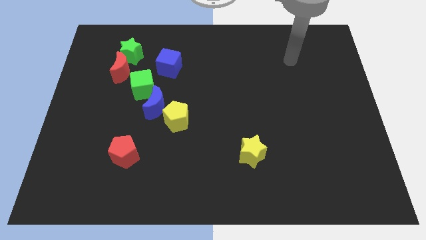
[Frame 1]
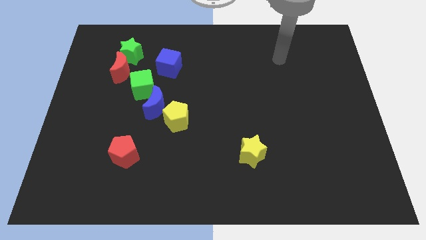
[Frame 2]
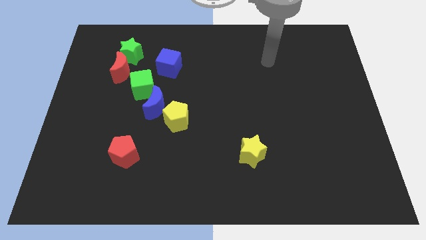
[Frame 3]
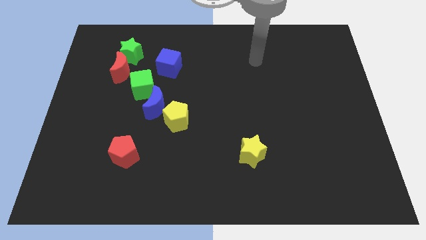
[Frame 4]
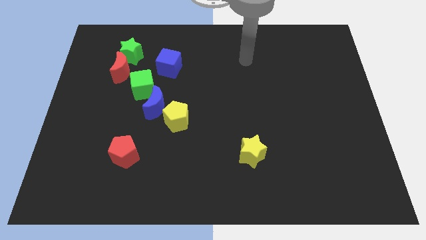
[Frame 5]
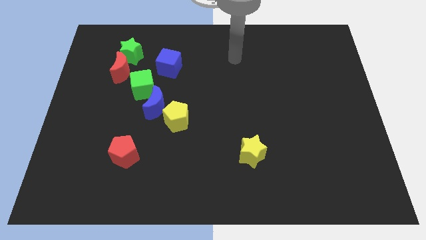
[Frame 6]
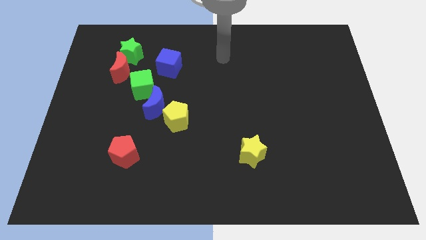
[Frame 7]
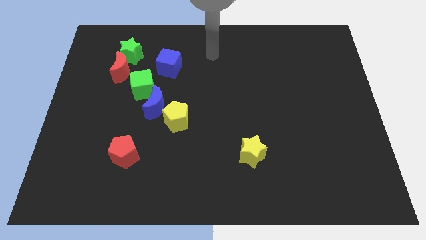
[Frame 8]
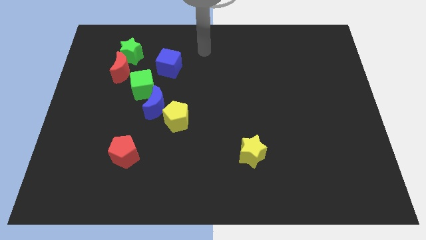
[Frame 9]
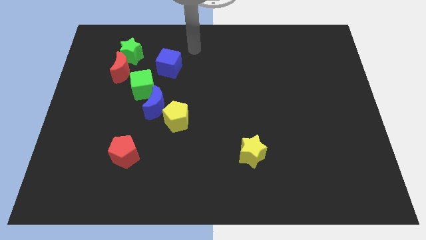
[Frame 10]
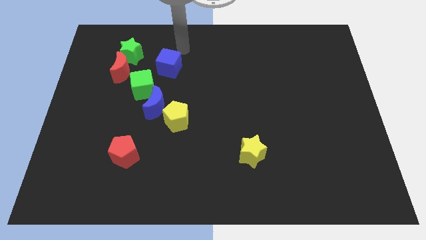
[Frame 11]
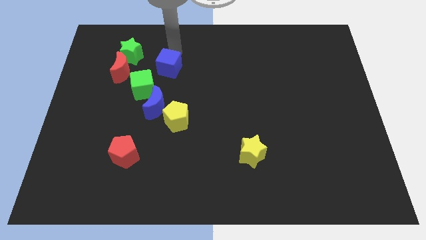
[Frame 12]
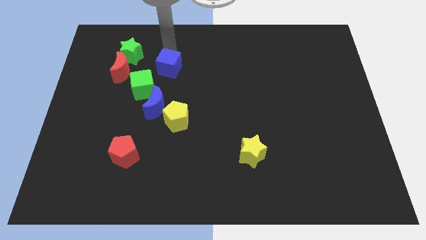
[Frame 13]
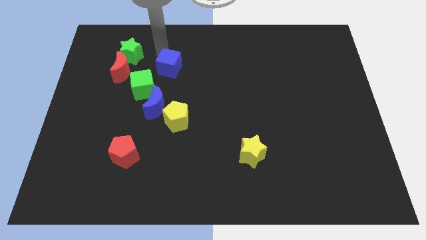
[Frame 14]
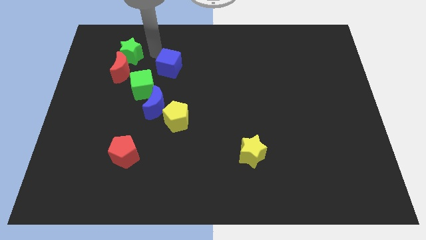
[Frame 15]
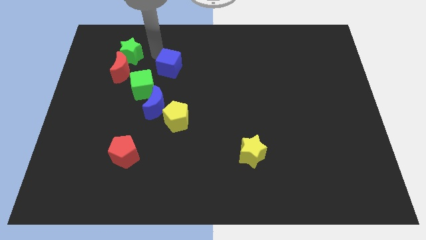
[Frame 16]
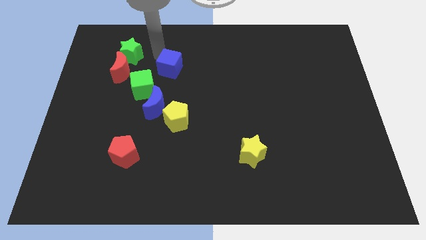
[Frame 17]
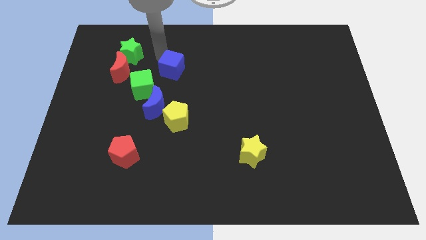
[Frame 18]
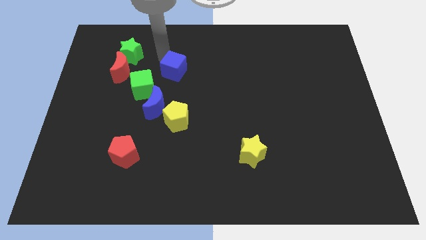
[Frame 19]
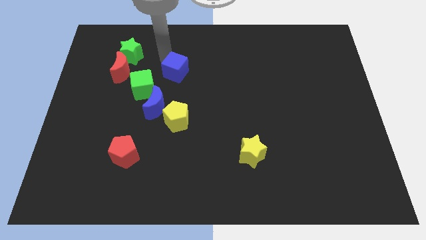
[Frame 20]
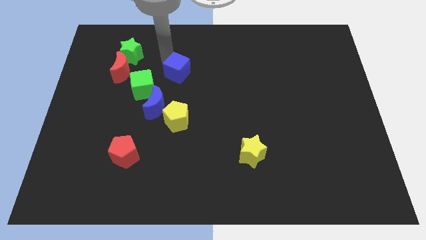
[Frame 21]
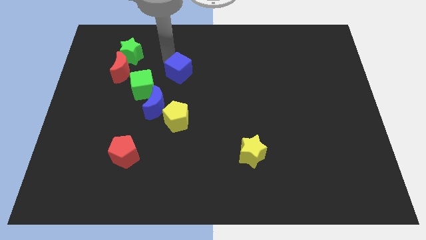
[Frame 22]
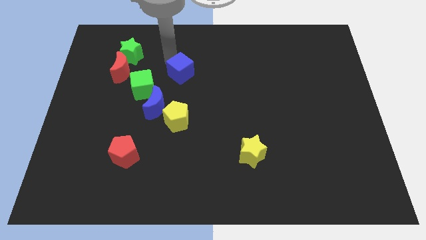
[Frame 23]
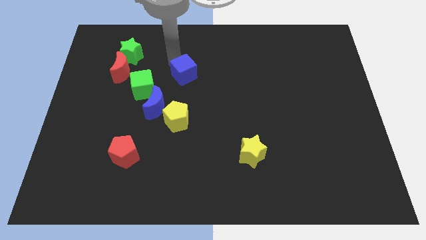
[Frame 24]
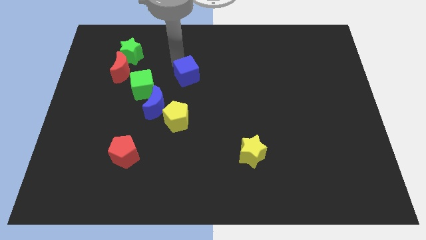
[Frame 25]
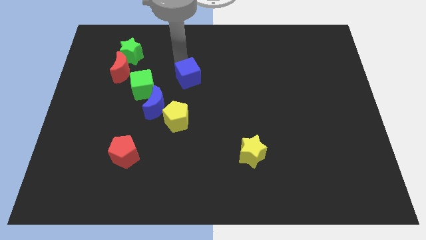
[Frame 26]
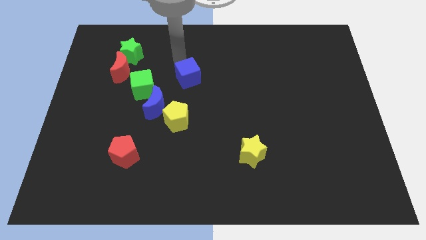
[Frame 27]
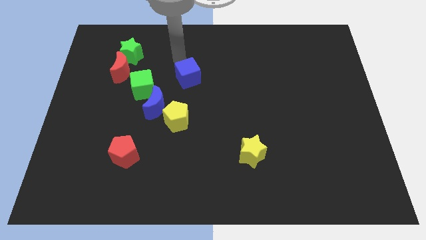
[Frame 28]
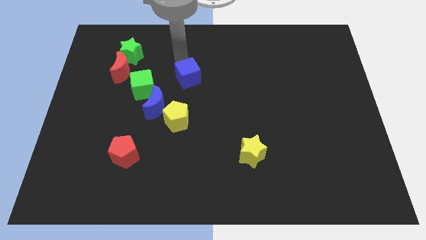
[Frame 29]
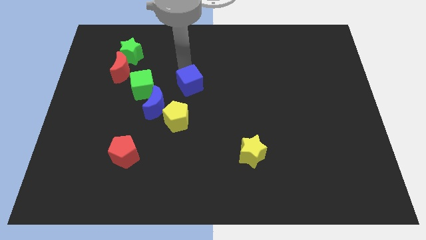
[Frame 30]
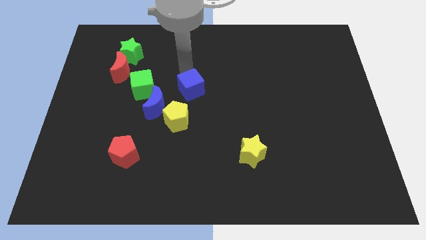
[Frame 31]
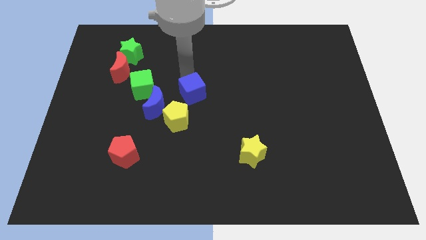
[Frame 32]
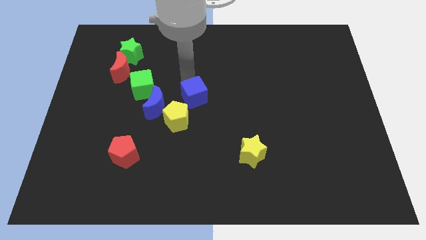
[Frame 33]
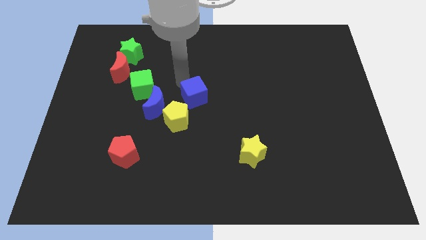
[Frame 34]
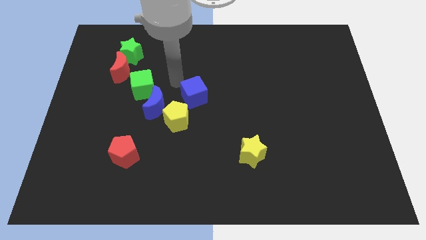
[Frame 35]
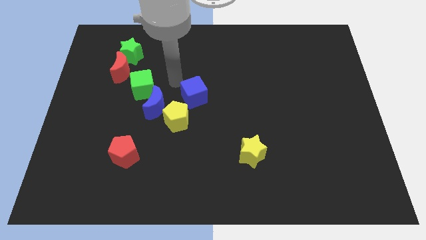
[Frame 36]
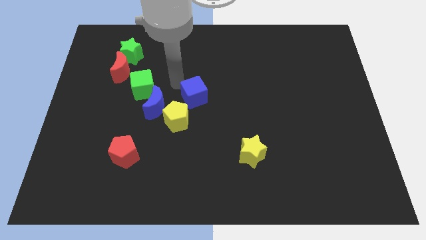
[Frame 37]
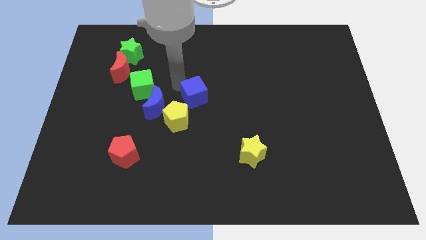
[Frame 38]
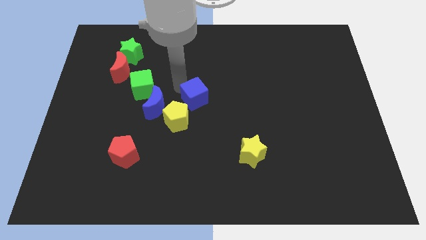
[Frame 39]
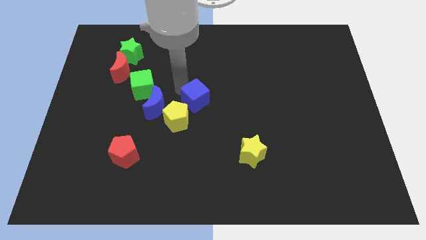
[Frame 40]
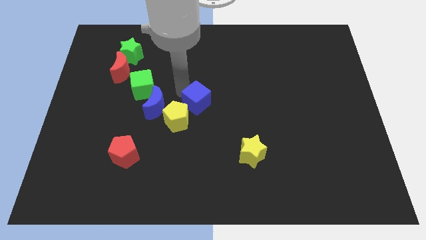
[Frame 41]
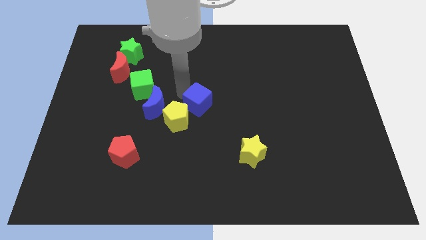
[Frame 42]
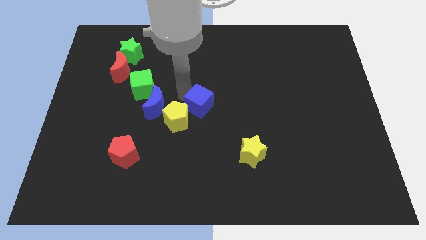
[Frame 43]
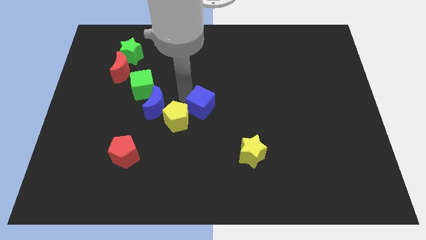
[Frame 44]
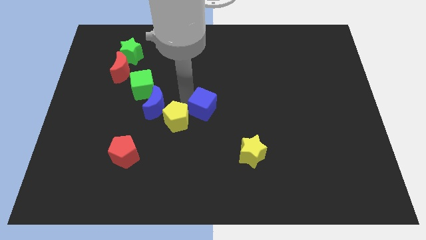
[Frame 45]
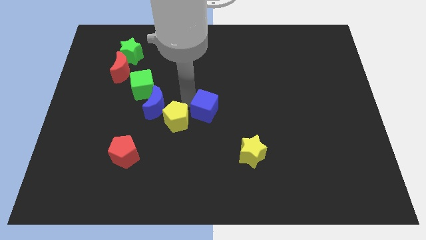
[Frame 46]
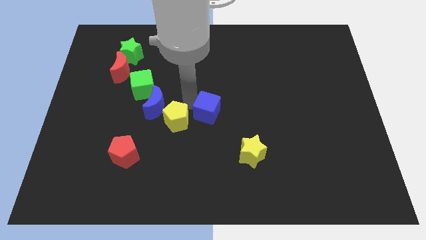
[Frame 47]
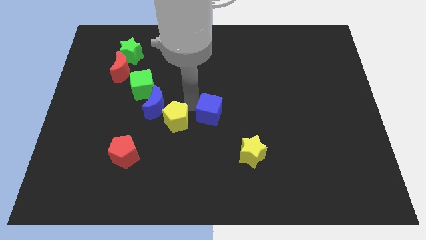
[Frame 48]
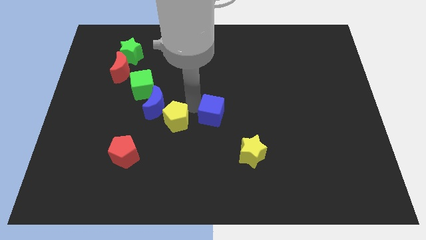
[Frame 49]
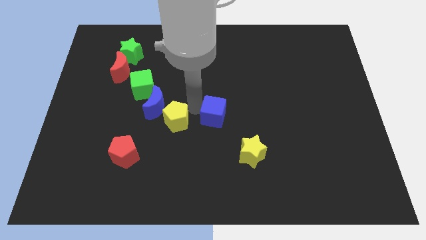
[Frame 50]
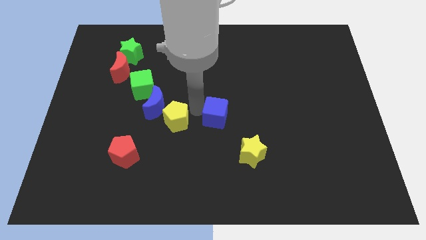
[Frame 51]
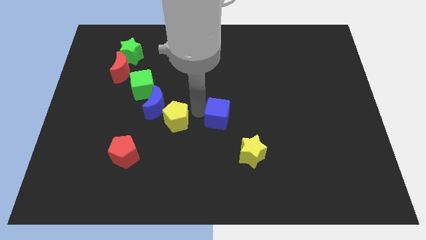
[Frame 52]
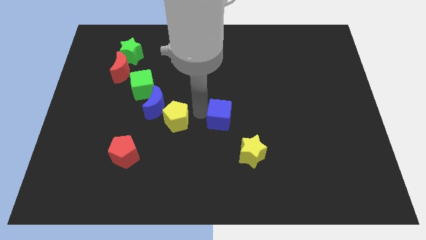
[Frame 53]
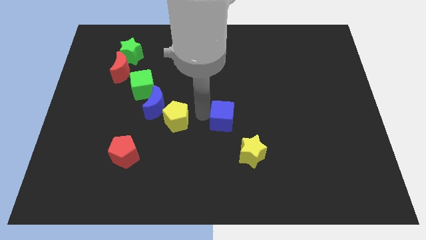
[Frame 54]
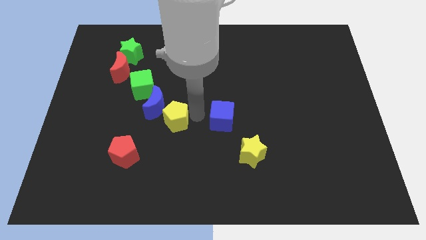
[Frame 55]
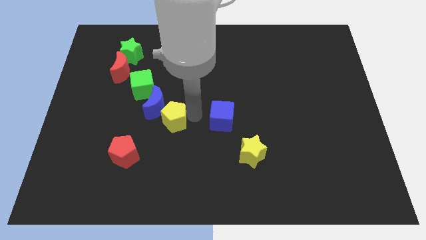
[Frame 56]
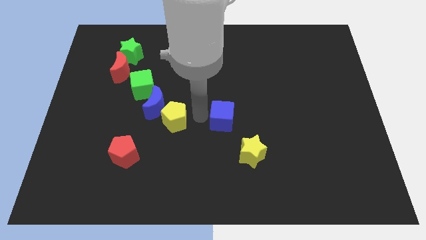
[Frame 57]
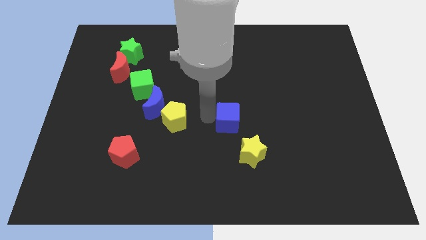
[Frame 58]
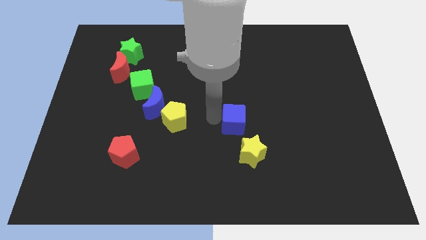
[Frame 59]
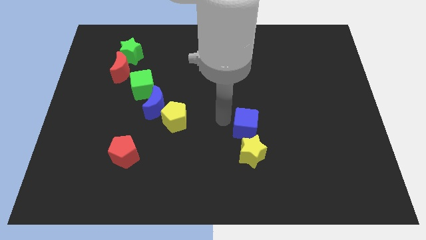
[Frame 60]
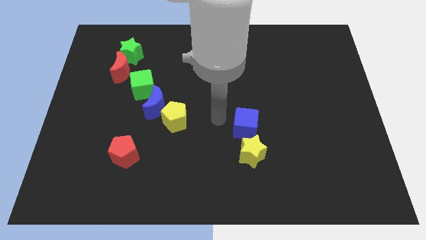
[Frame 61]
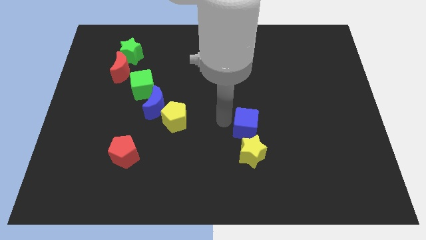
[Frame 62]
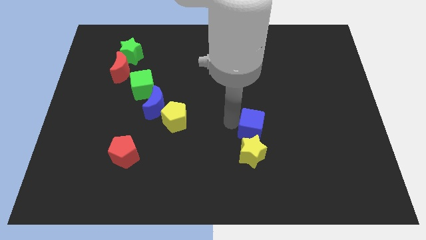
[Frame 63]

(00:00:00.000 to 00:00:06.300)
put the blue cube to the top right of the yellow star

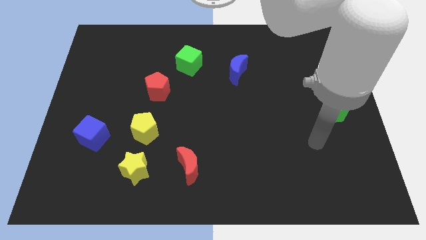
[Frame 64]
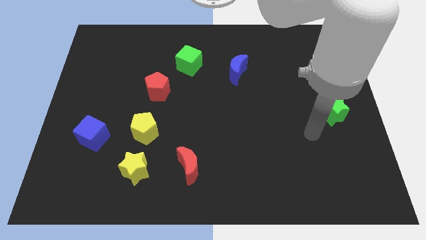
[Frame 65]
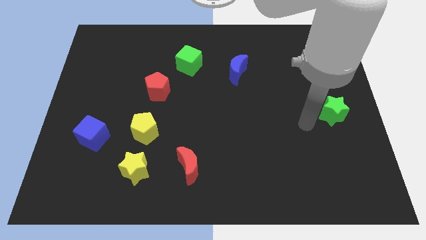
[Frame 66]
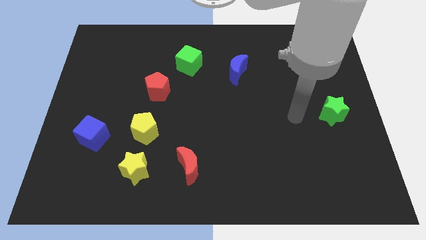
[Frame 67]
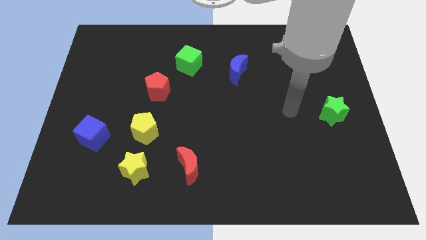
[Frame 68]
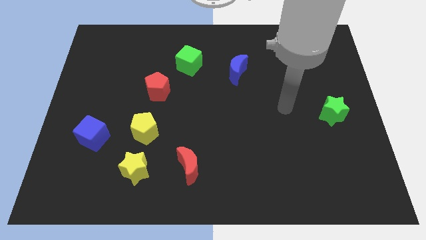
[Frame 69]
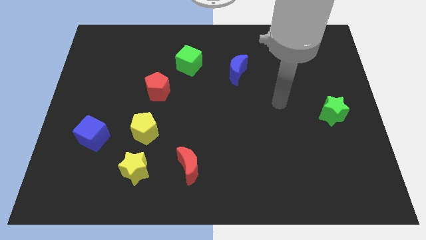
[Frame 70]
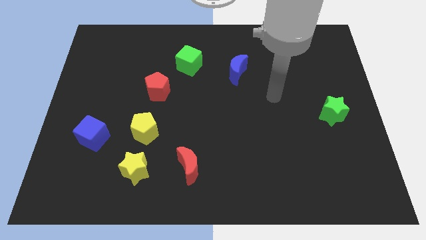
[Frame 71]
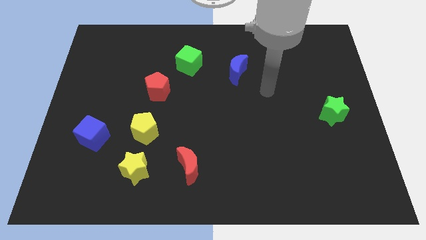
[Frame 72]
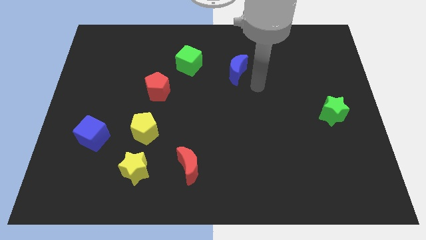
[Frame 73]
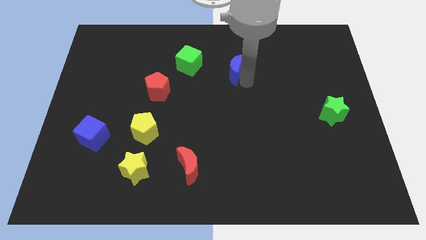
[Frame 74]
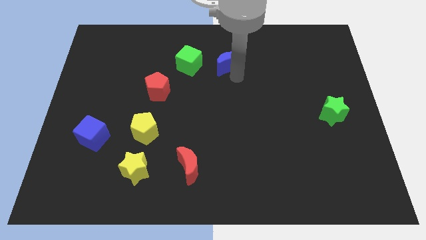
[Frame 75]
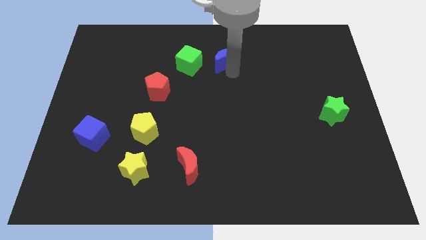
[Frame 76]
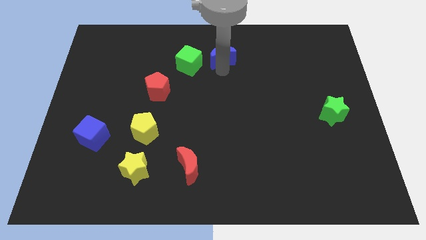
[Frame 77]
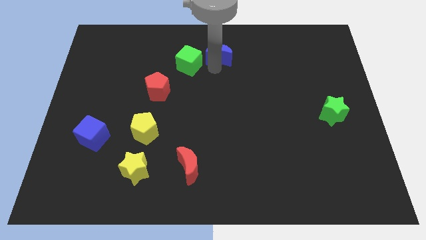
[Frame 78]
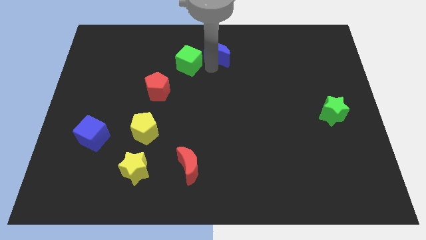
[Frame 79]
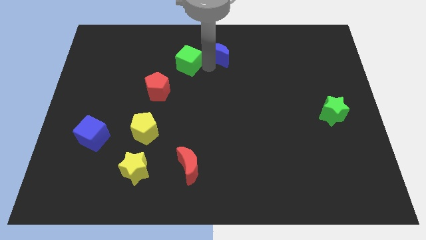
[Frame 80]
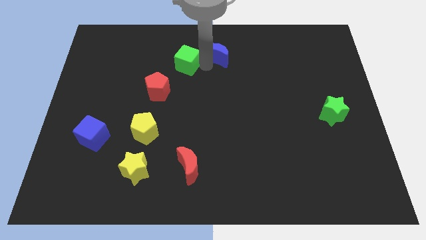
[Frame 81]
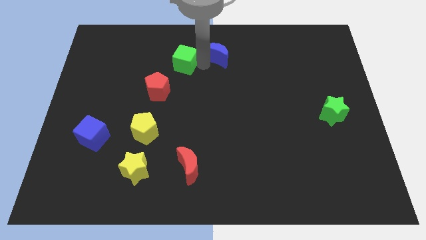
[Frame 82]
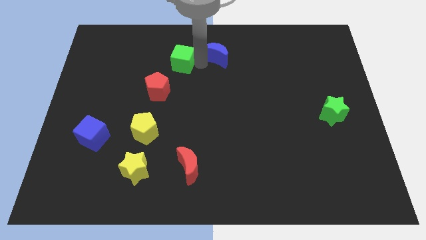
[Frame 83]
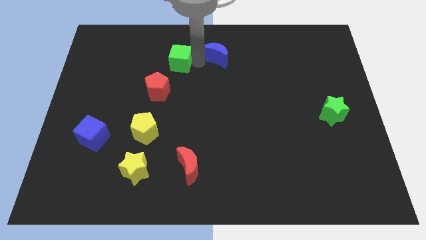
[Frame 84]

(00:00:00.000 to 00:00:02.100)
move the green cube above the red pentagon
